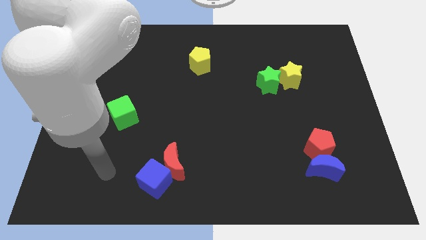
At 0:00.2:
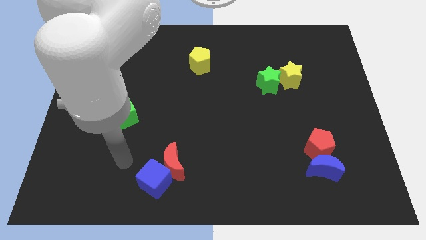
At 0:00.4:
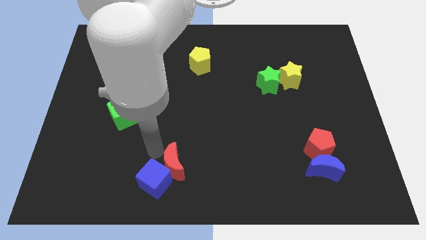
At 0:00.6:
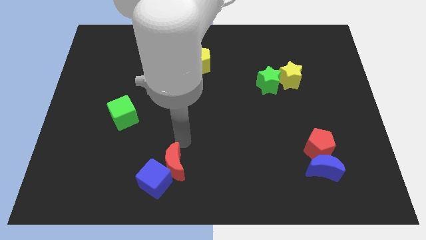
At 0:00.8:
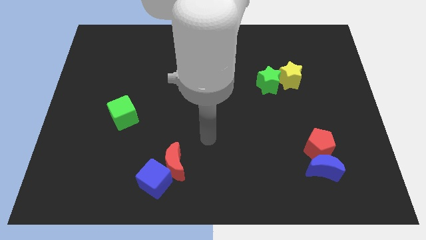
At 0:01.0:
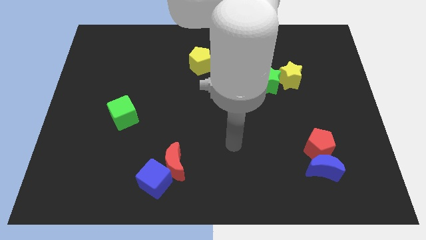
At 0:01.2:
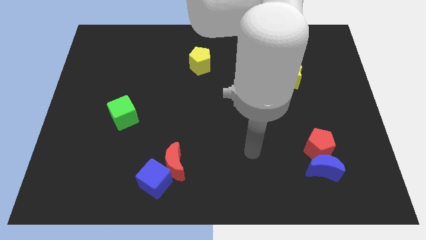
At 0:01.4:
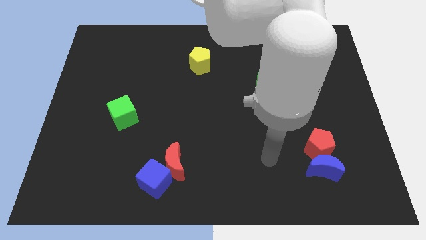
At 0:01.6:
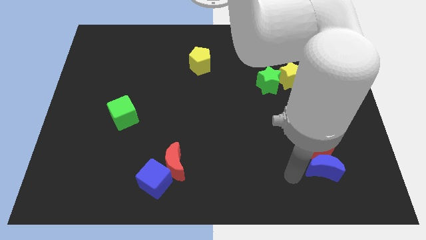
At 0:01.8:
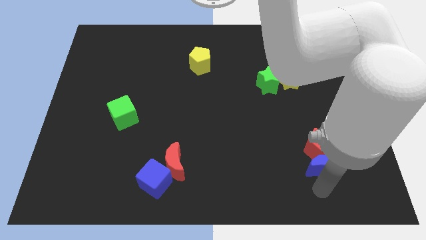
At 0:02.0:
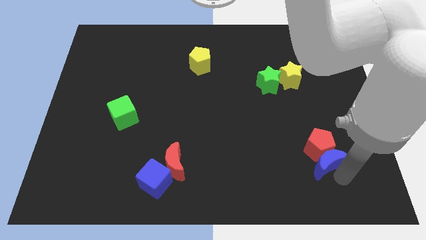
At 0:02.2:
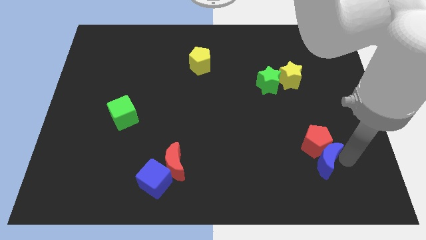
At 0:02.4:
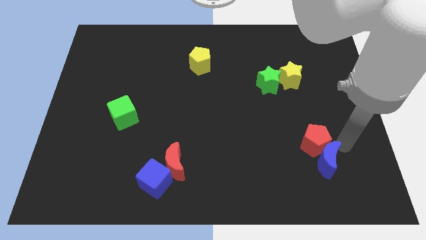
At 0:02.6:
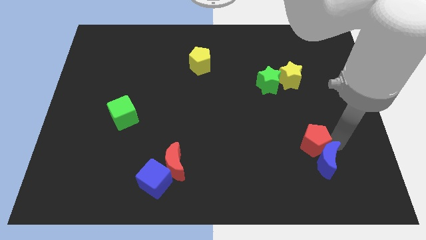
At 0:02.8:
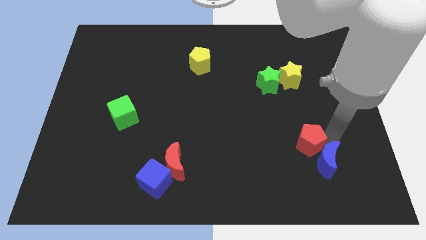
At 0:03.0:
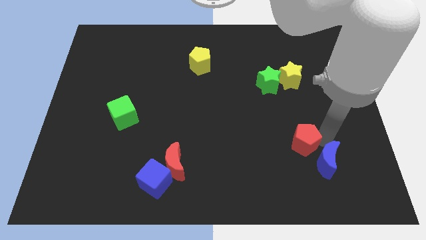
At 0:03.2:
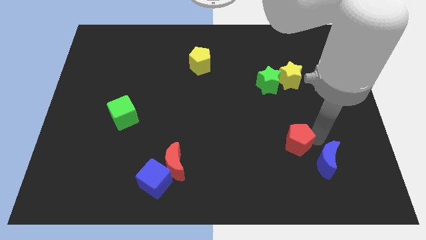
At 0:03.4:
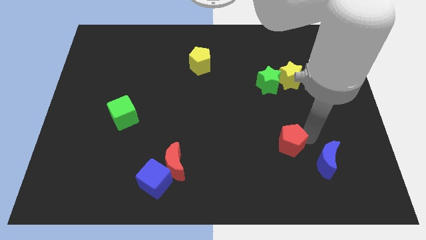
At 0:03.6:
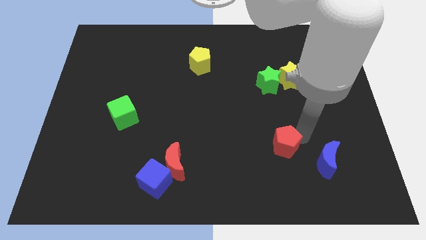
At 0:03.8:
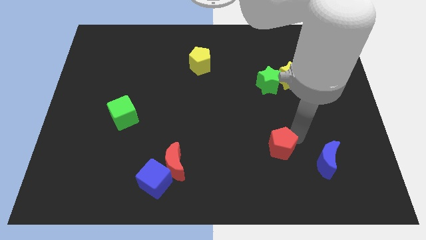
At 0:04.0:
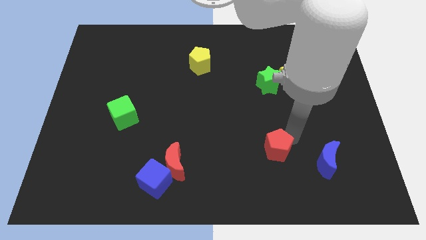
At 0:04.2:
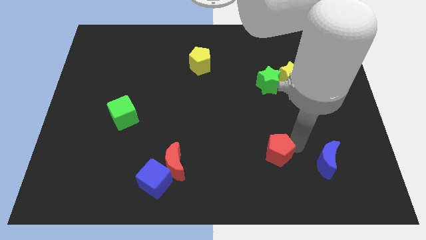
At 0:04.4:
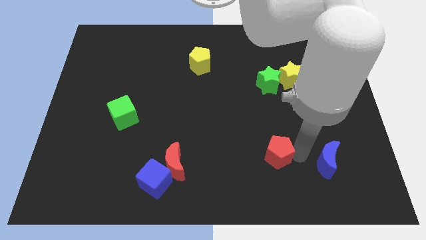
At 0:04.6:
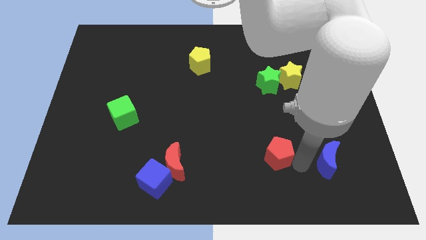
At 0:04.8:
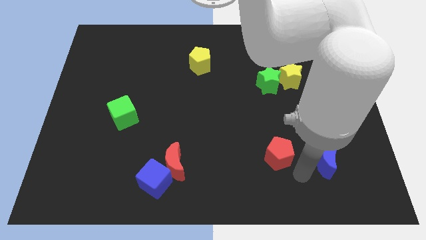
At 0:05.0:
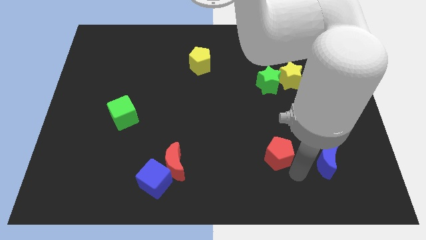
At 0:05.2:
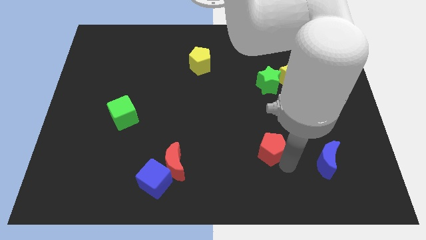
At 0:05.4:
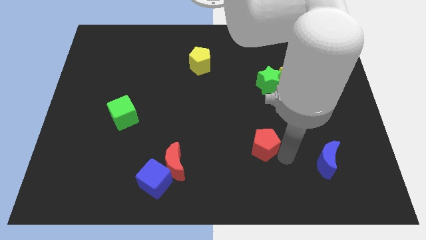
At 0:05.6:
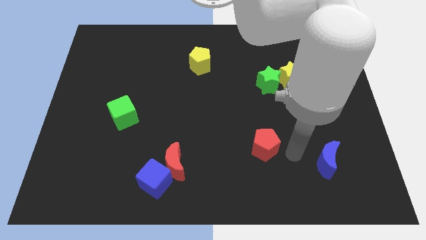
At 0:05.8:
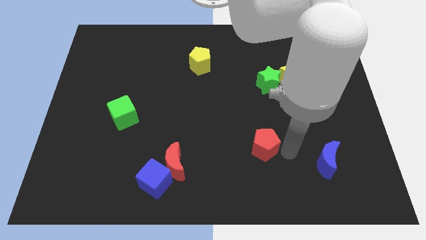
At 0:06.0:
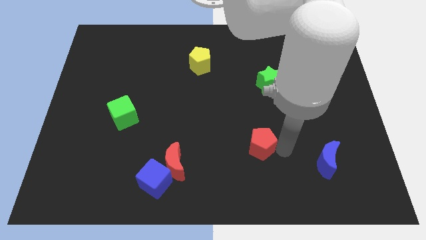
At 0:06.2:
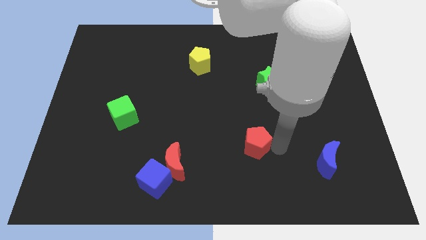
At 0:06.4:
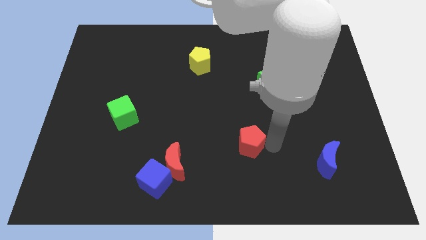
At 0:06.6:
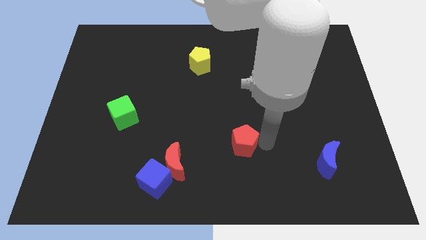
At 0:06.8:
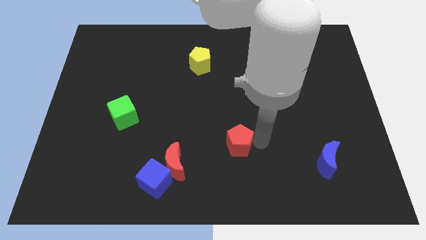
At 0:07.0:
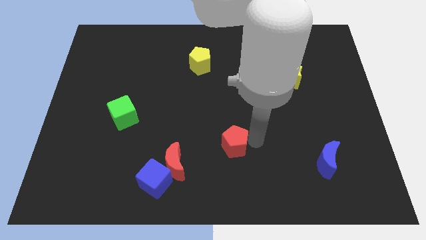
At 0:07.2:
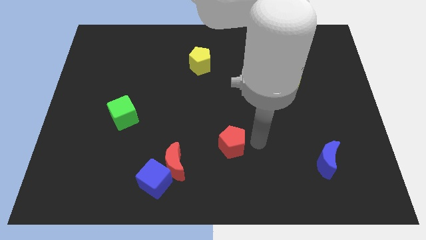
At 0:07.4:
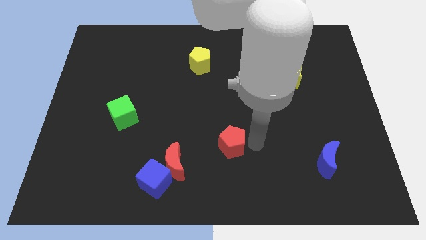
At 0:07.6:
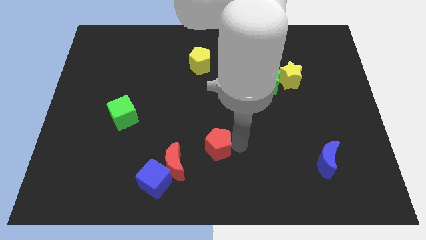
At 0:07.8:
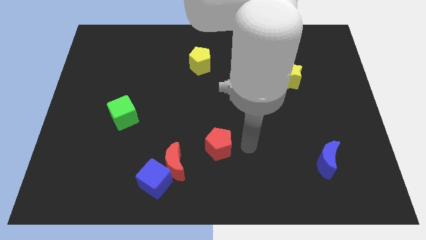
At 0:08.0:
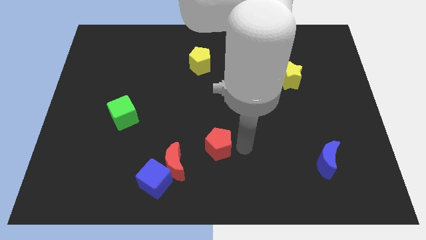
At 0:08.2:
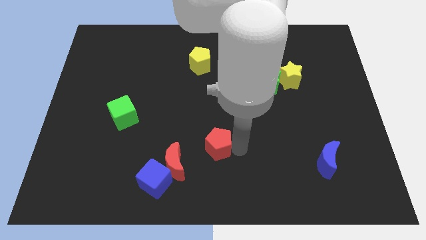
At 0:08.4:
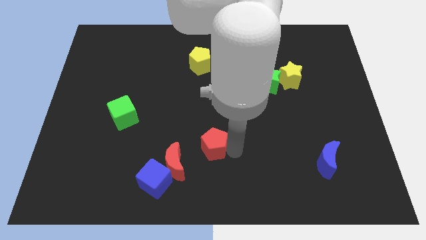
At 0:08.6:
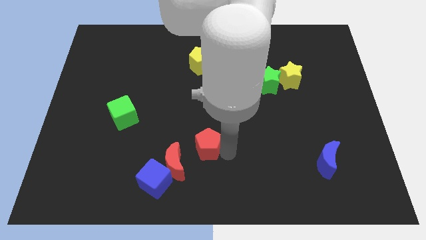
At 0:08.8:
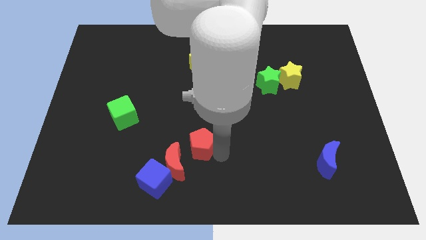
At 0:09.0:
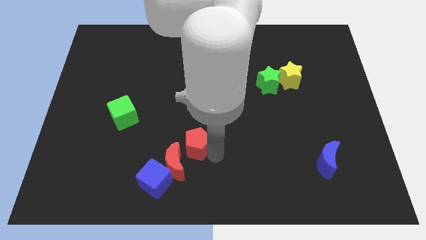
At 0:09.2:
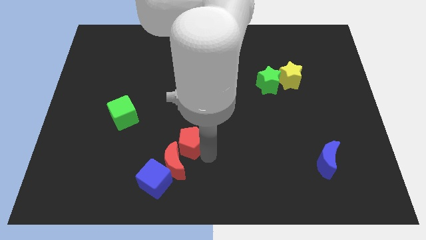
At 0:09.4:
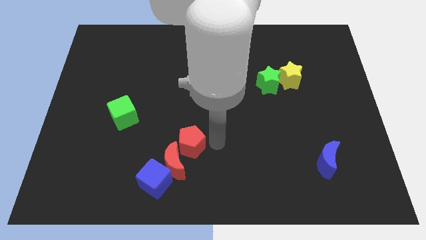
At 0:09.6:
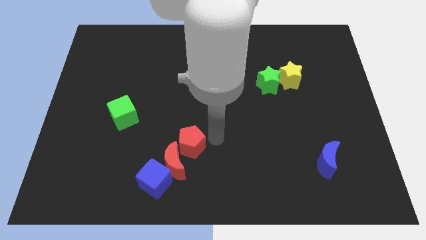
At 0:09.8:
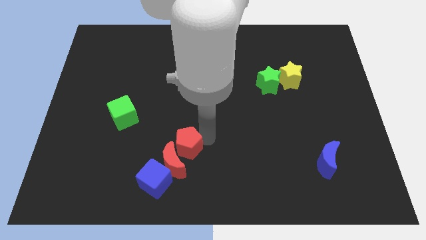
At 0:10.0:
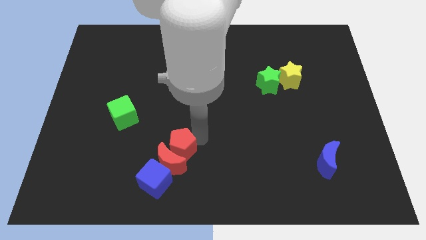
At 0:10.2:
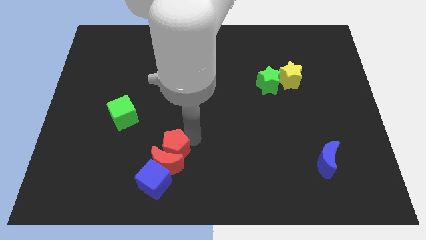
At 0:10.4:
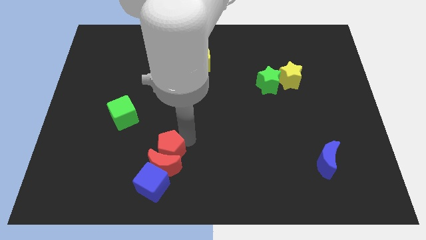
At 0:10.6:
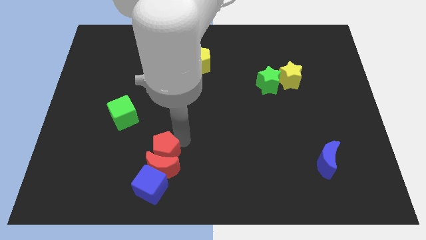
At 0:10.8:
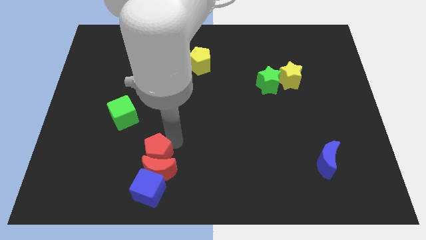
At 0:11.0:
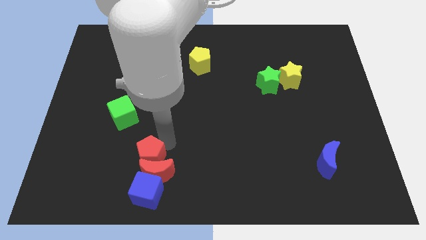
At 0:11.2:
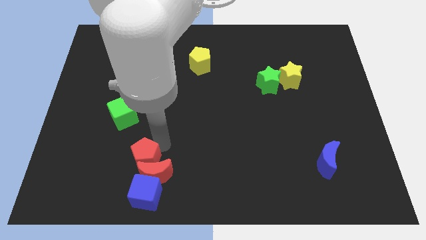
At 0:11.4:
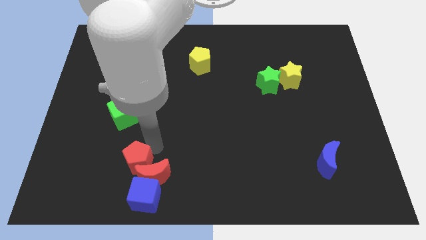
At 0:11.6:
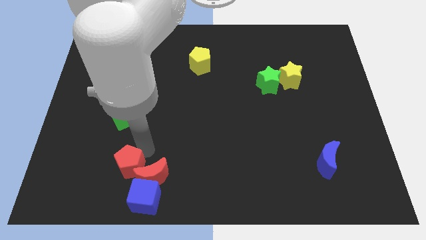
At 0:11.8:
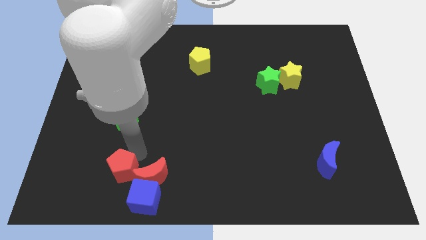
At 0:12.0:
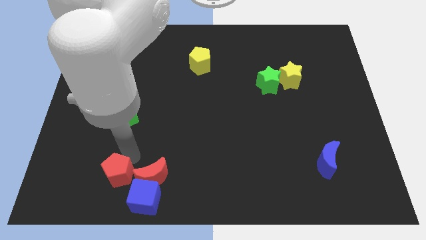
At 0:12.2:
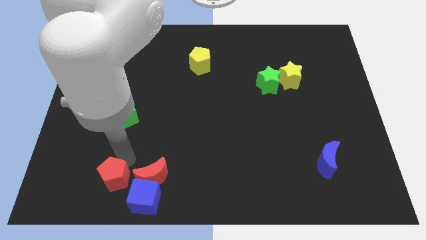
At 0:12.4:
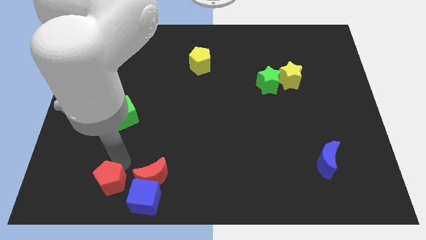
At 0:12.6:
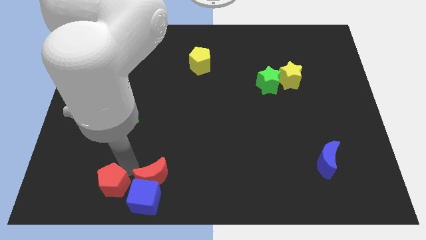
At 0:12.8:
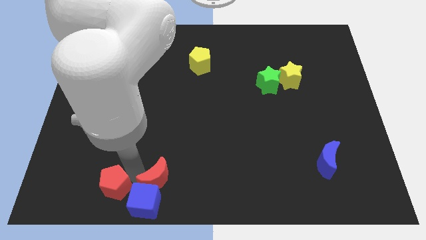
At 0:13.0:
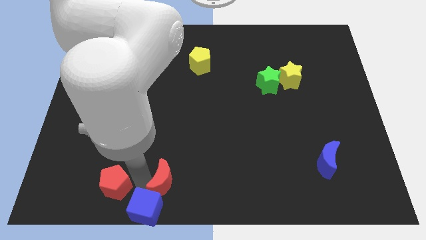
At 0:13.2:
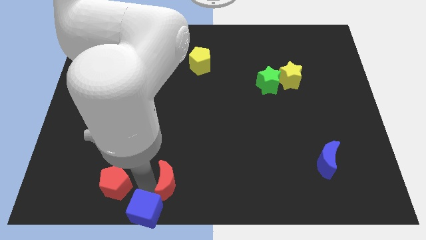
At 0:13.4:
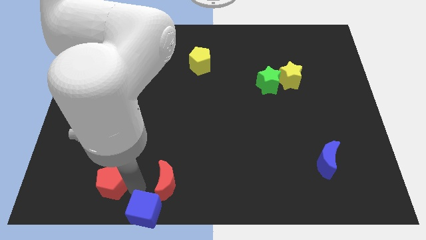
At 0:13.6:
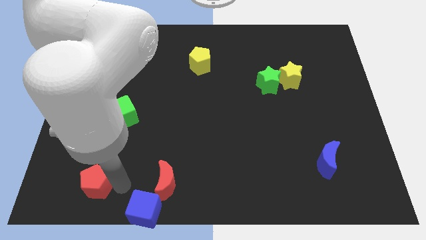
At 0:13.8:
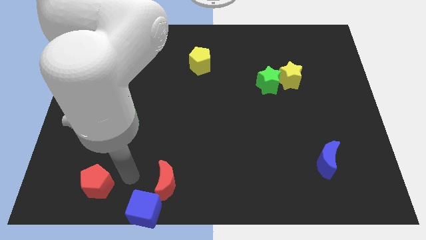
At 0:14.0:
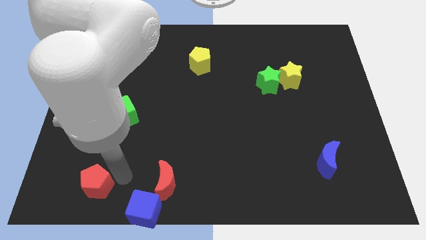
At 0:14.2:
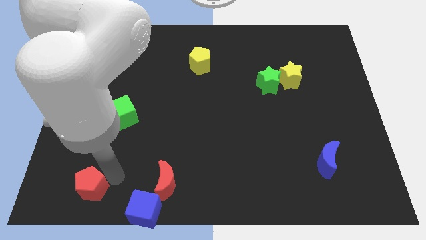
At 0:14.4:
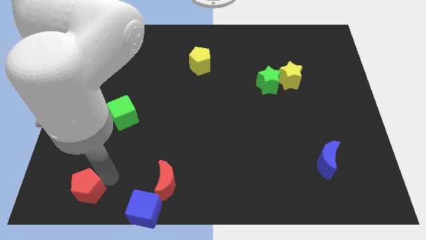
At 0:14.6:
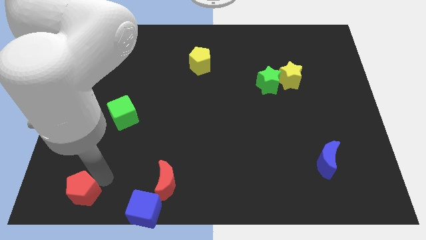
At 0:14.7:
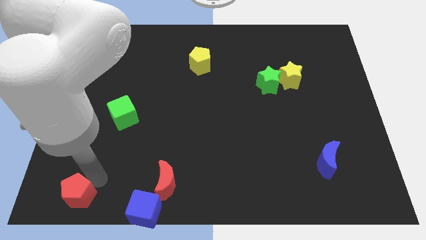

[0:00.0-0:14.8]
put the red pentagon to the lower left corner
